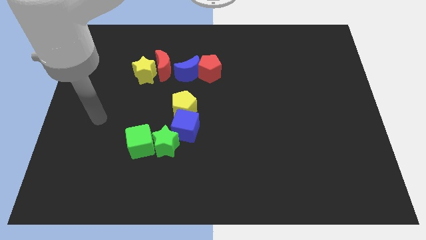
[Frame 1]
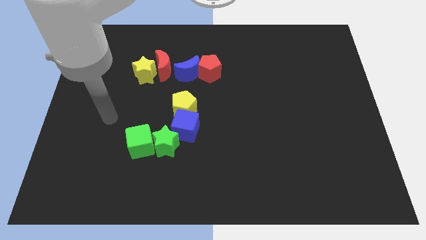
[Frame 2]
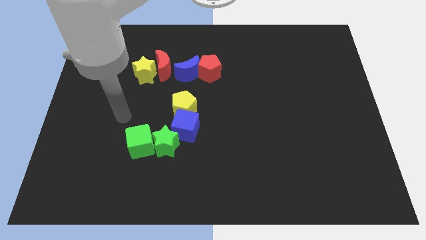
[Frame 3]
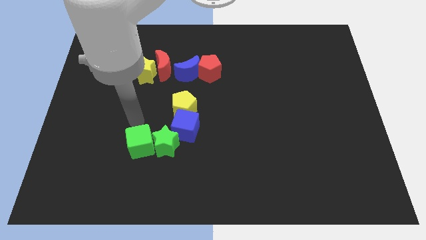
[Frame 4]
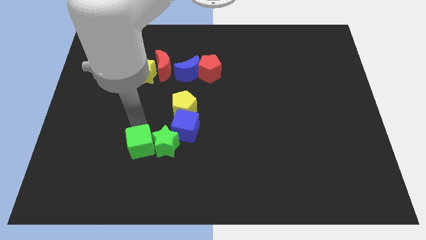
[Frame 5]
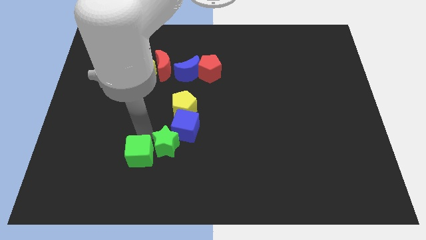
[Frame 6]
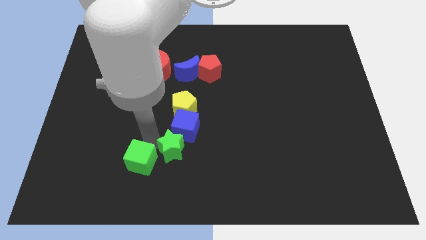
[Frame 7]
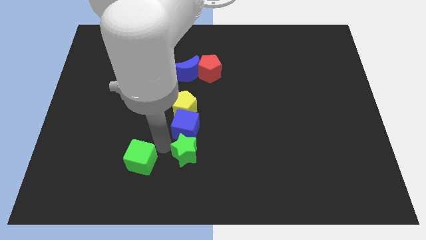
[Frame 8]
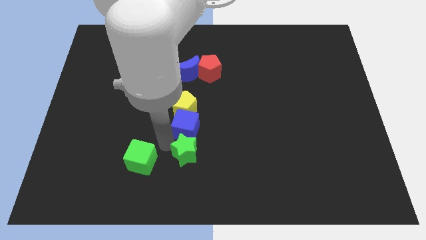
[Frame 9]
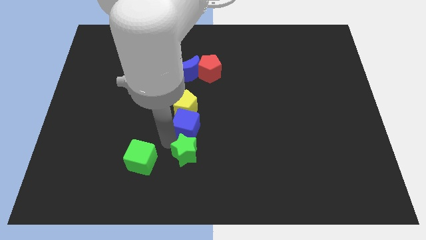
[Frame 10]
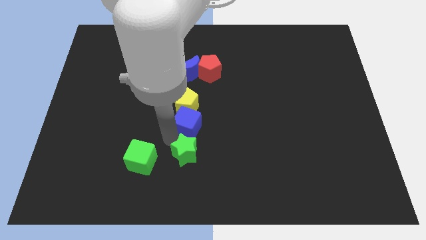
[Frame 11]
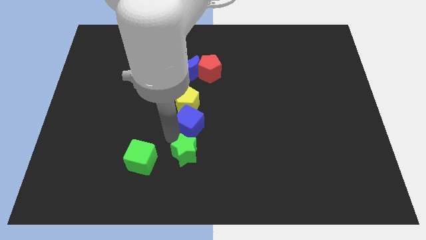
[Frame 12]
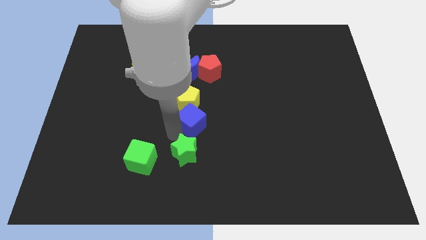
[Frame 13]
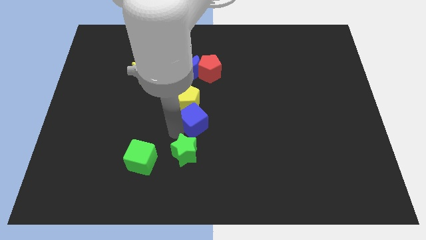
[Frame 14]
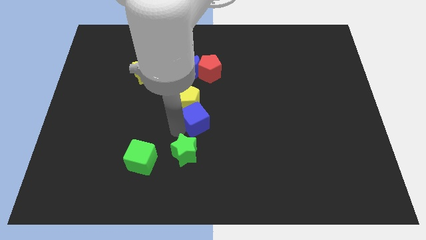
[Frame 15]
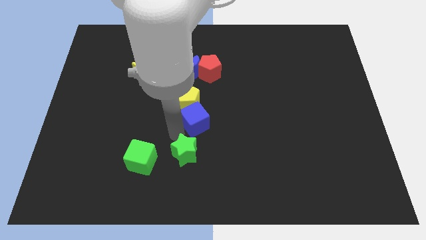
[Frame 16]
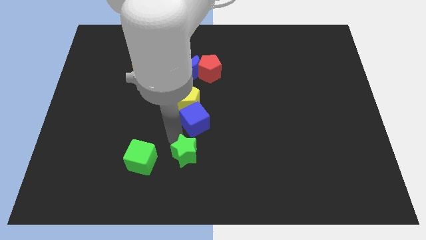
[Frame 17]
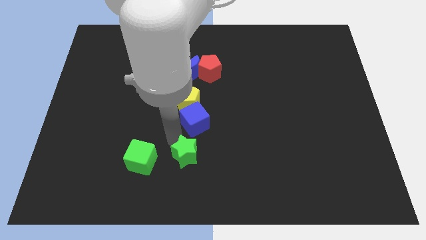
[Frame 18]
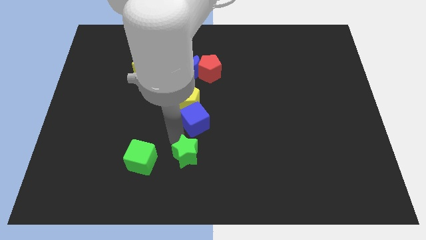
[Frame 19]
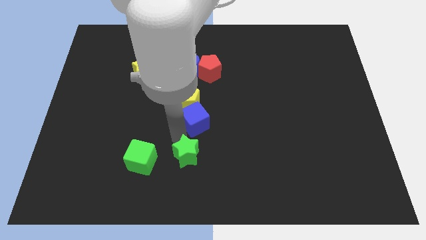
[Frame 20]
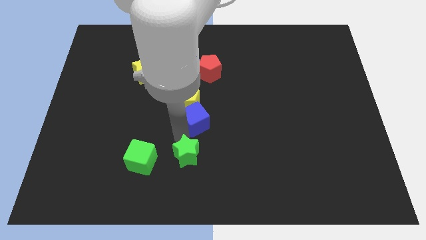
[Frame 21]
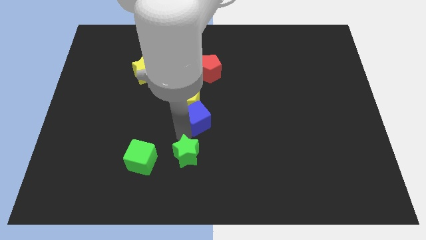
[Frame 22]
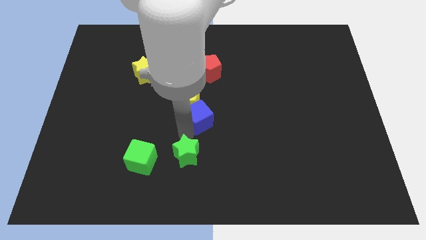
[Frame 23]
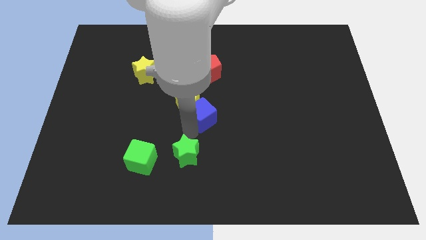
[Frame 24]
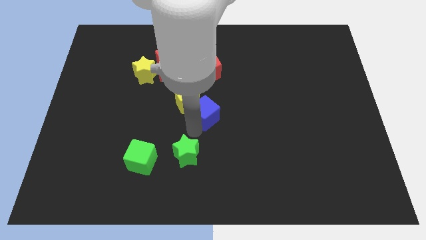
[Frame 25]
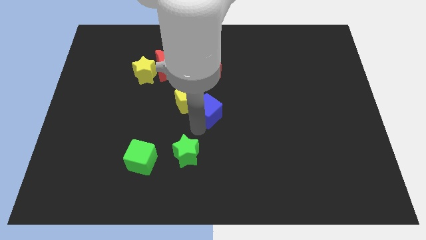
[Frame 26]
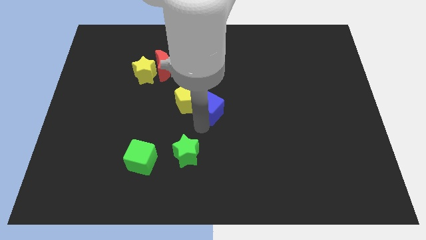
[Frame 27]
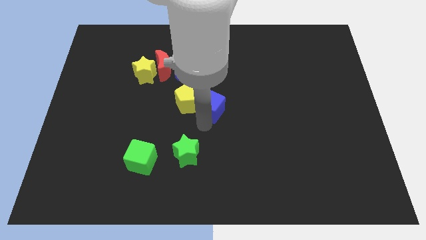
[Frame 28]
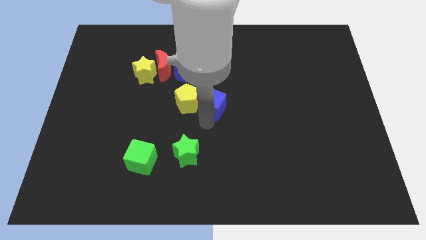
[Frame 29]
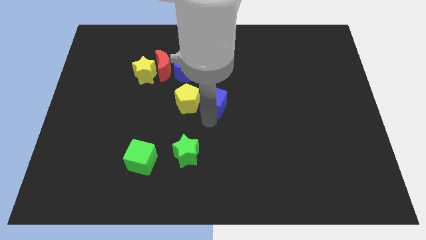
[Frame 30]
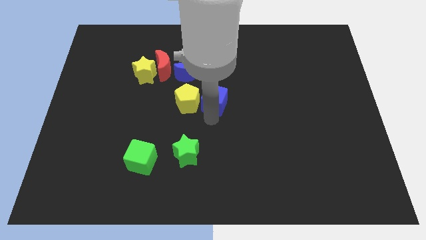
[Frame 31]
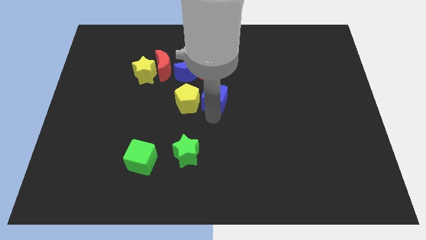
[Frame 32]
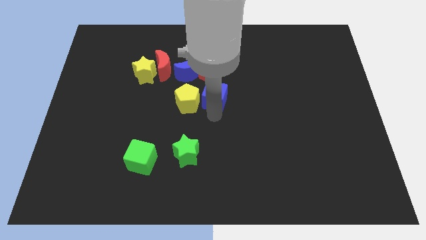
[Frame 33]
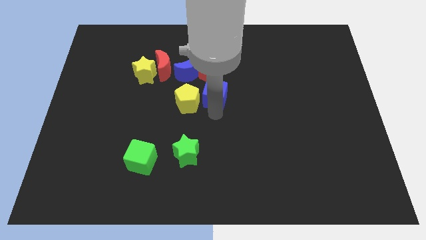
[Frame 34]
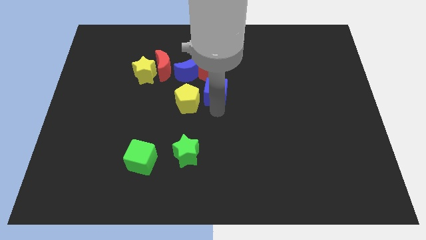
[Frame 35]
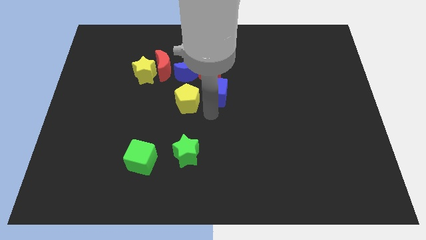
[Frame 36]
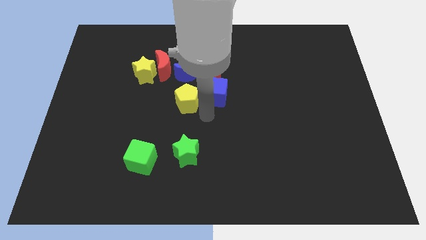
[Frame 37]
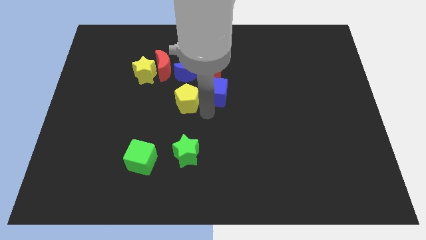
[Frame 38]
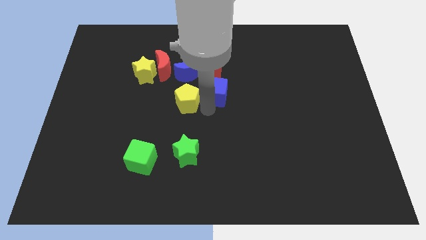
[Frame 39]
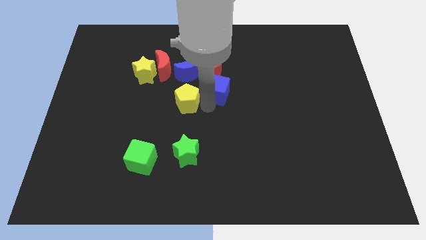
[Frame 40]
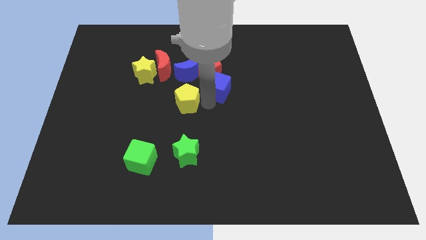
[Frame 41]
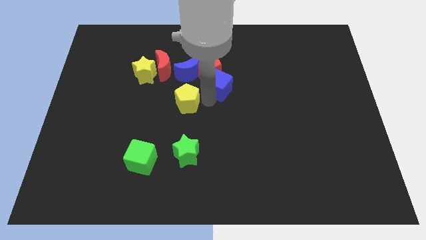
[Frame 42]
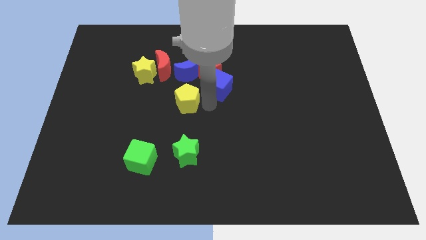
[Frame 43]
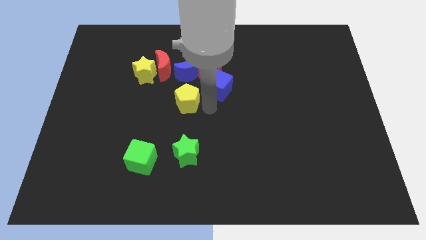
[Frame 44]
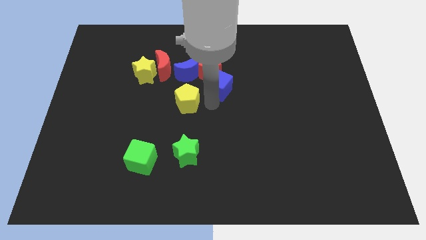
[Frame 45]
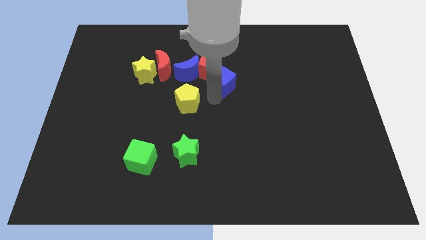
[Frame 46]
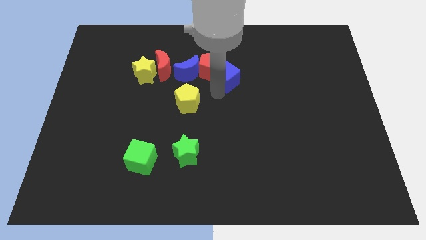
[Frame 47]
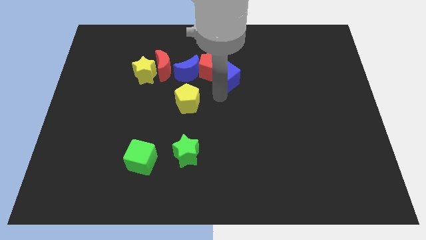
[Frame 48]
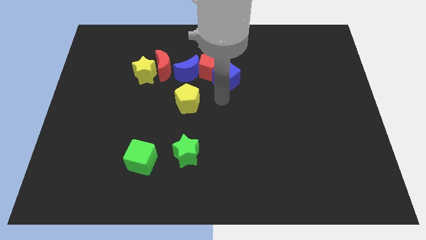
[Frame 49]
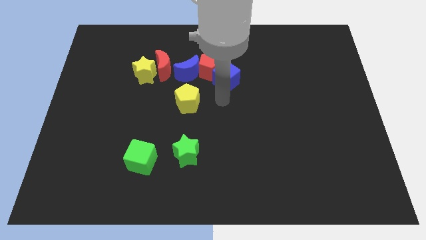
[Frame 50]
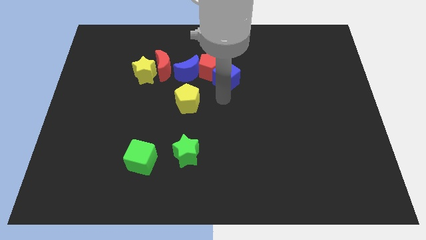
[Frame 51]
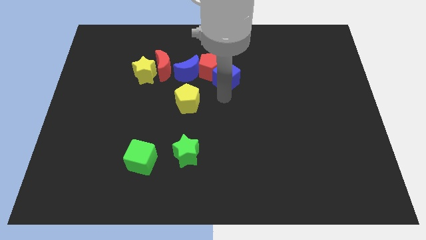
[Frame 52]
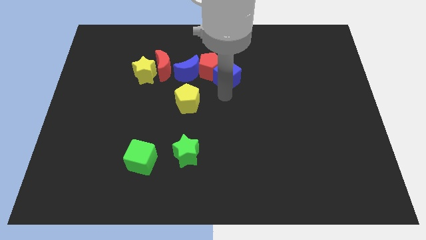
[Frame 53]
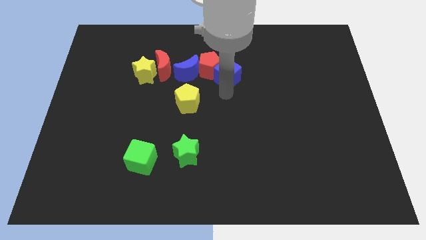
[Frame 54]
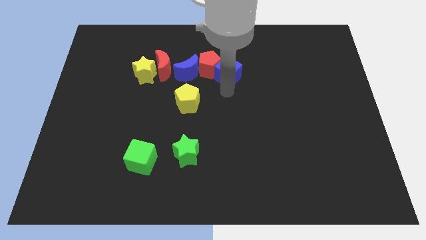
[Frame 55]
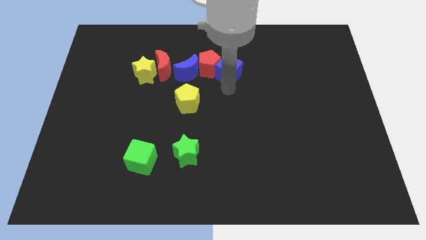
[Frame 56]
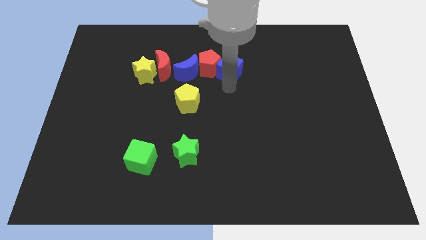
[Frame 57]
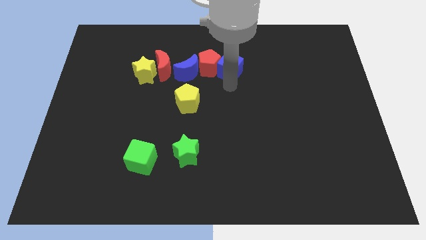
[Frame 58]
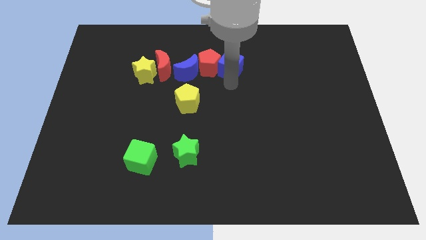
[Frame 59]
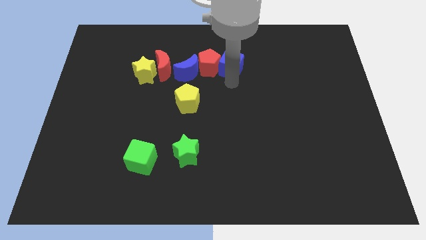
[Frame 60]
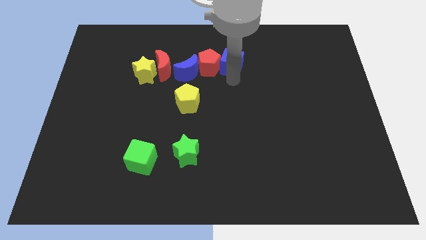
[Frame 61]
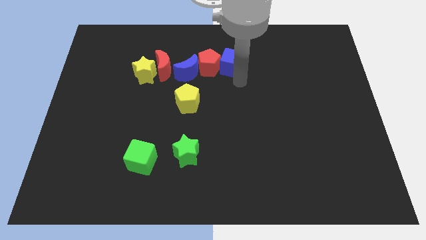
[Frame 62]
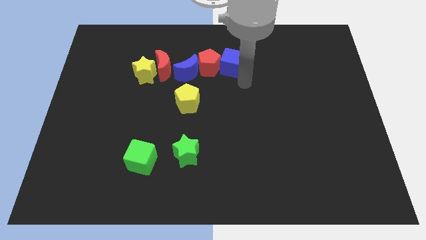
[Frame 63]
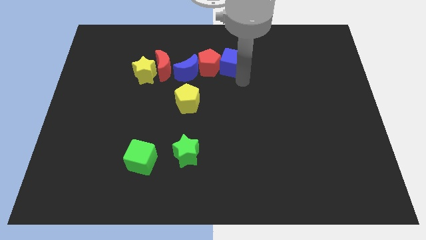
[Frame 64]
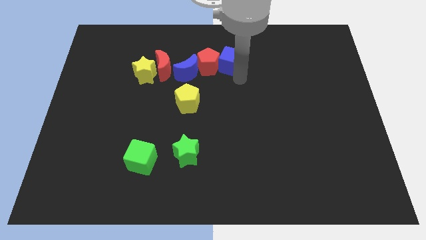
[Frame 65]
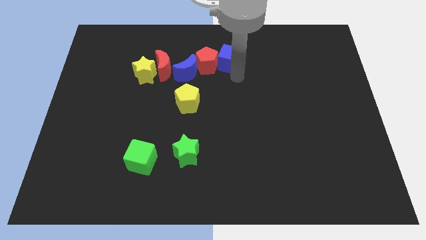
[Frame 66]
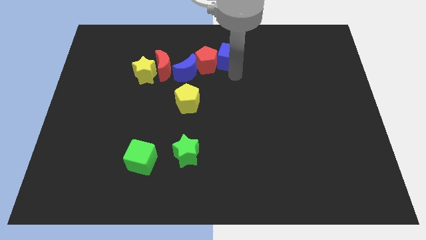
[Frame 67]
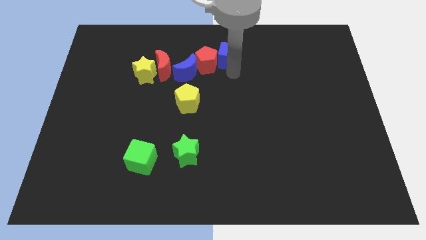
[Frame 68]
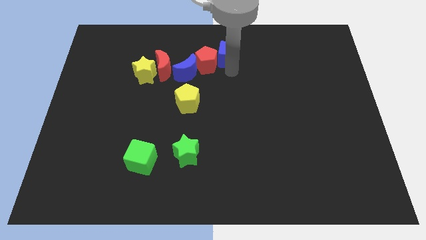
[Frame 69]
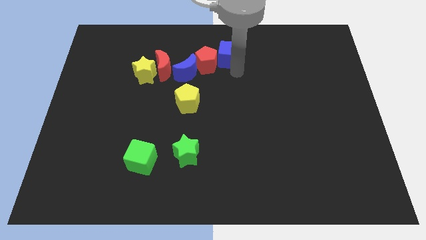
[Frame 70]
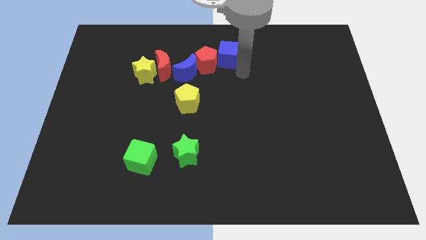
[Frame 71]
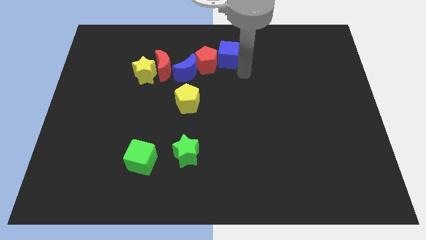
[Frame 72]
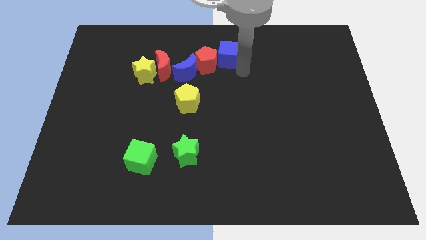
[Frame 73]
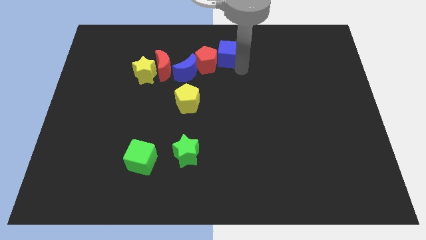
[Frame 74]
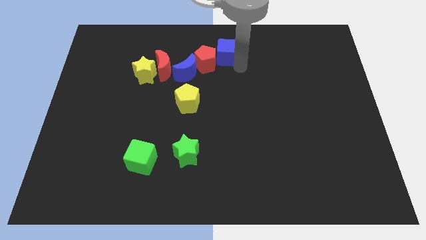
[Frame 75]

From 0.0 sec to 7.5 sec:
put the blue cube to the towards your base
